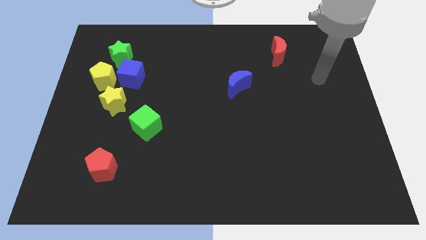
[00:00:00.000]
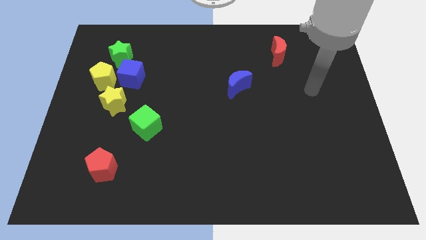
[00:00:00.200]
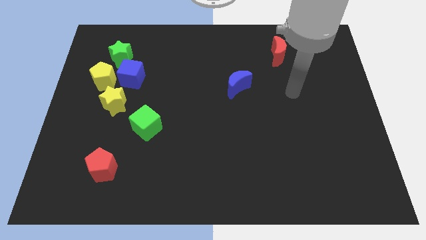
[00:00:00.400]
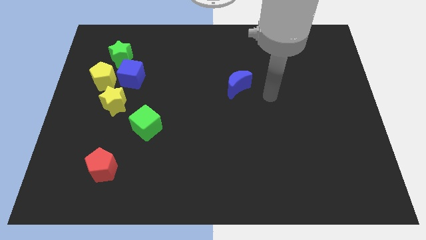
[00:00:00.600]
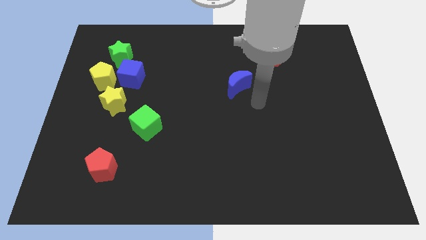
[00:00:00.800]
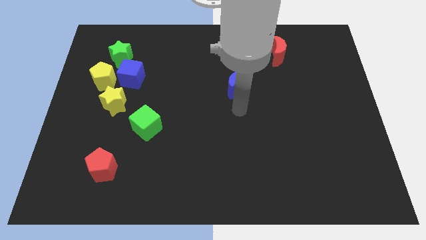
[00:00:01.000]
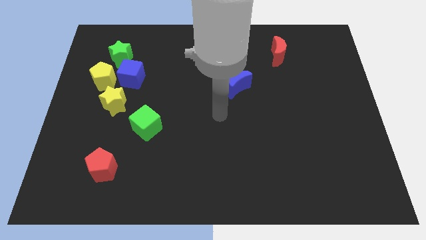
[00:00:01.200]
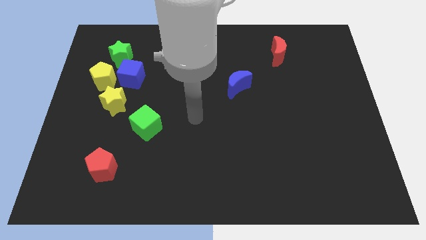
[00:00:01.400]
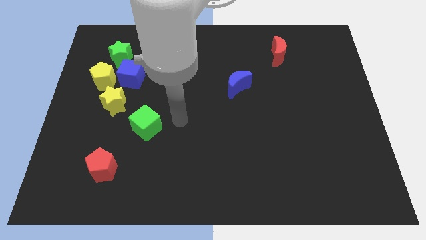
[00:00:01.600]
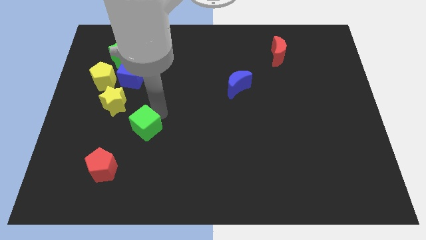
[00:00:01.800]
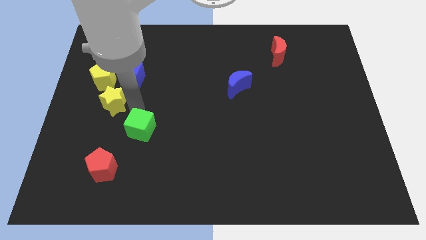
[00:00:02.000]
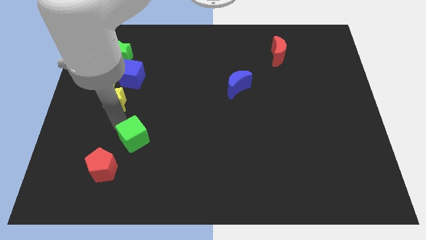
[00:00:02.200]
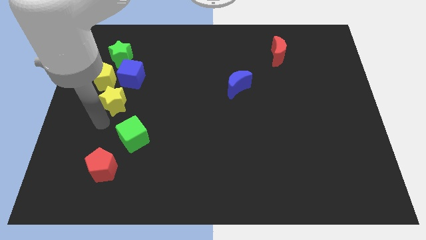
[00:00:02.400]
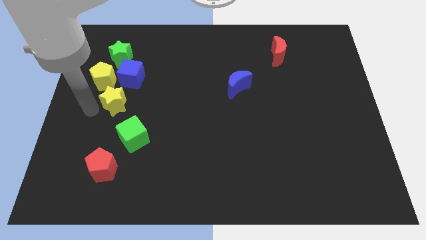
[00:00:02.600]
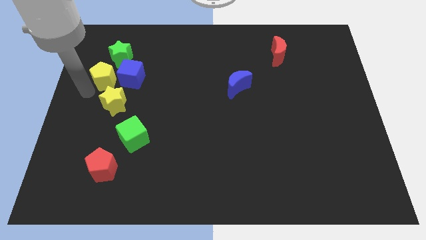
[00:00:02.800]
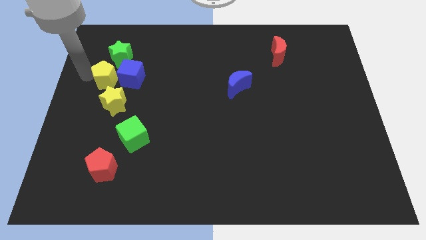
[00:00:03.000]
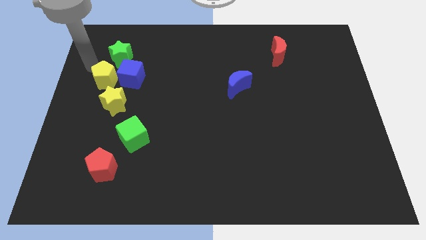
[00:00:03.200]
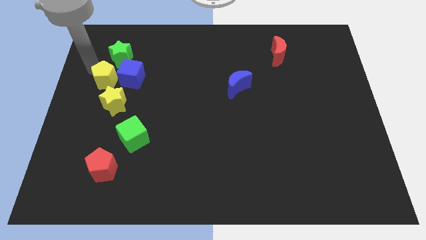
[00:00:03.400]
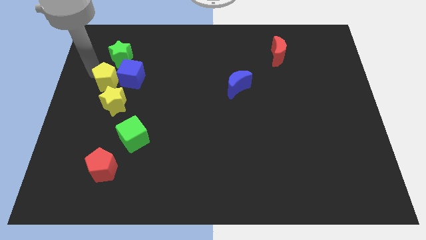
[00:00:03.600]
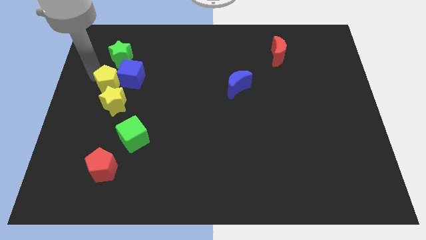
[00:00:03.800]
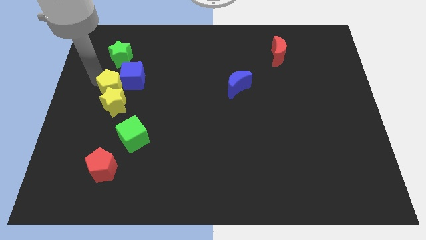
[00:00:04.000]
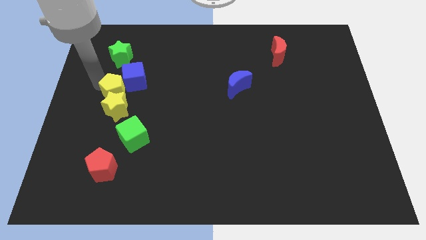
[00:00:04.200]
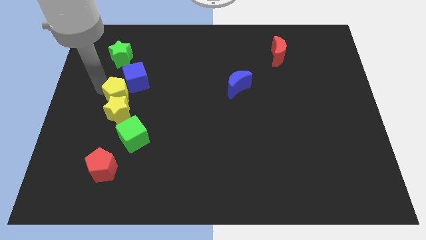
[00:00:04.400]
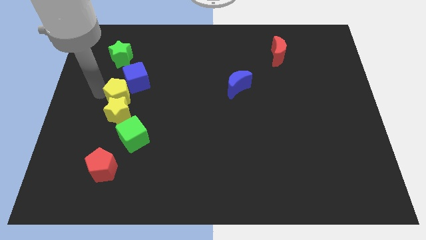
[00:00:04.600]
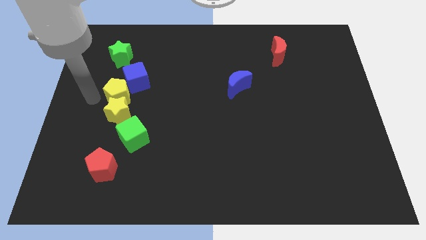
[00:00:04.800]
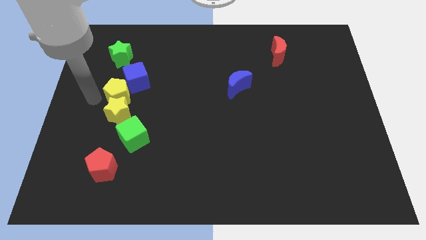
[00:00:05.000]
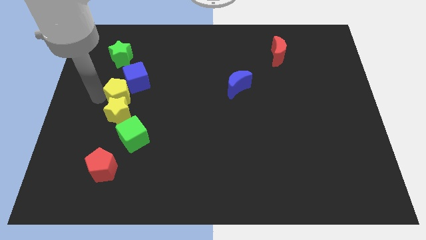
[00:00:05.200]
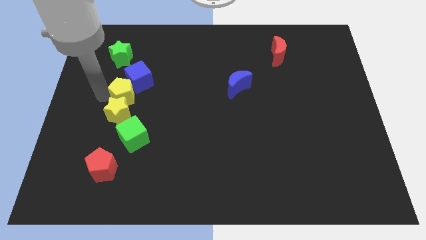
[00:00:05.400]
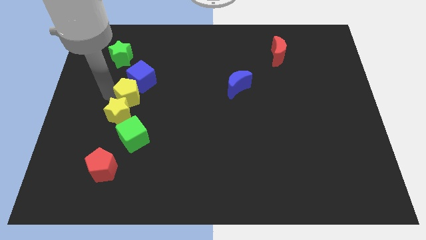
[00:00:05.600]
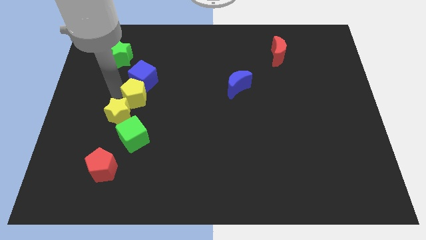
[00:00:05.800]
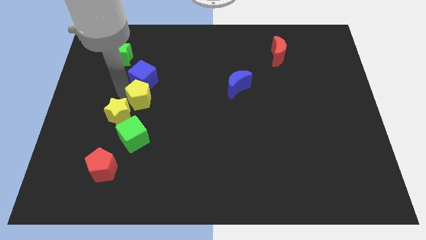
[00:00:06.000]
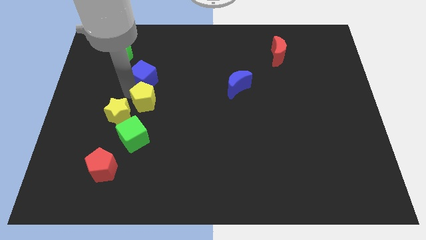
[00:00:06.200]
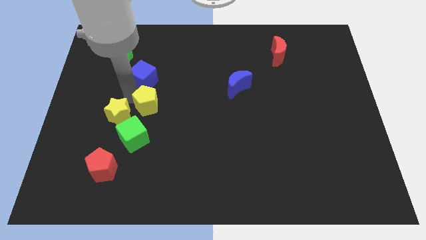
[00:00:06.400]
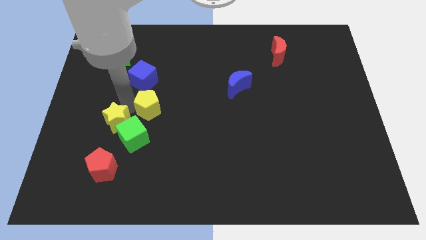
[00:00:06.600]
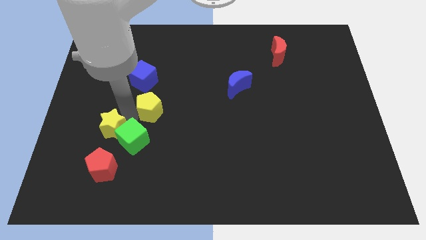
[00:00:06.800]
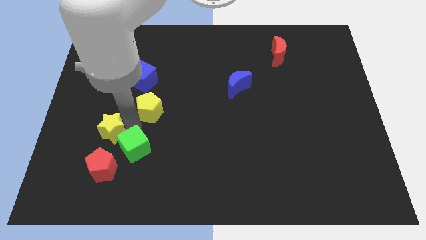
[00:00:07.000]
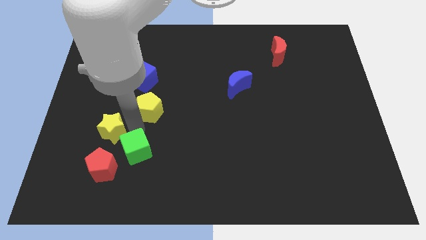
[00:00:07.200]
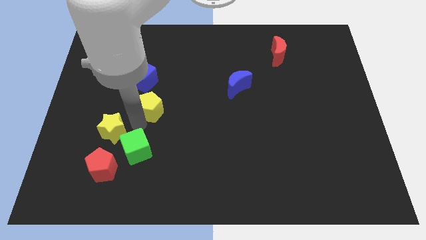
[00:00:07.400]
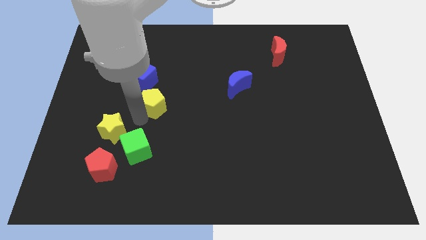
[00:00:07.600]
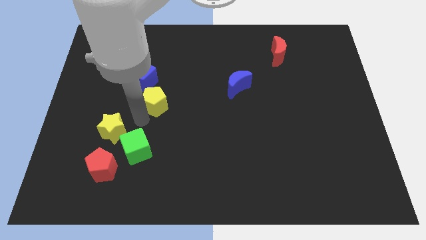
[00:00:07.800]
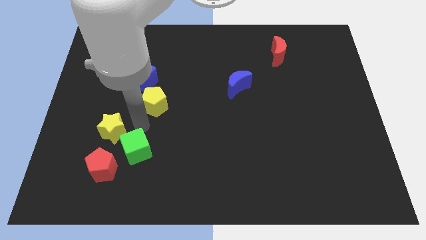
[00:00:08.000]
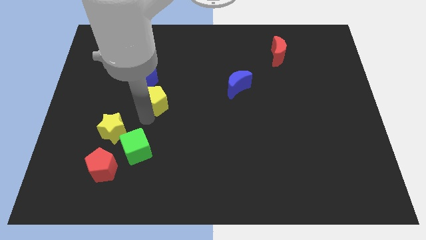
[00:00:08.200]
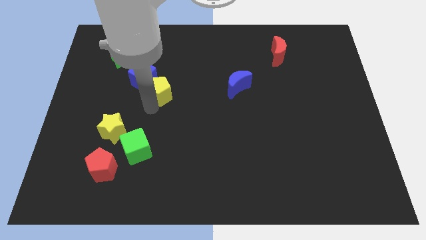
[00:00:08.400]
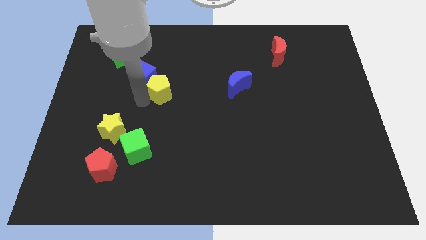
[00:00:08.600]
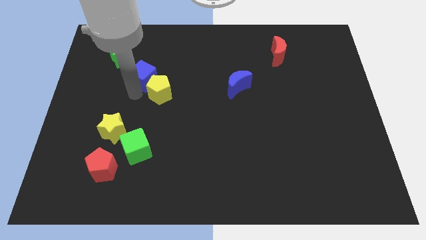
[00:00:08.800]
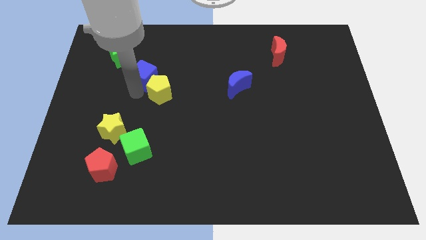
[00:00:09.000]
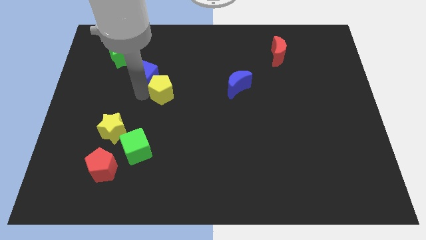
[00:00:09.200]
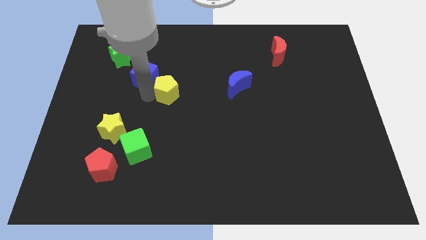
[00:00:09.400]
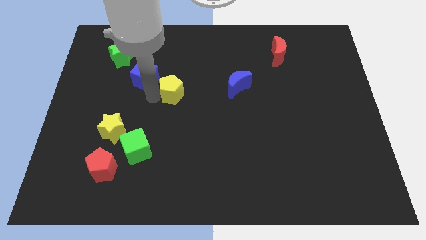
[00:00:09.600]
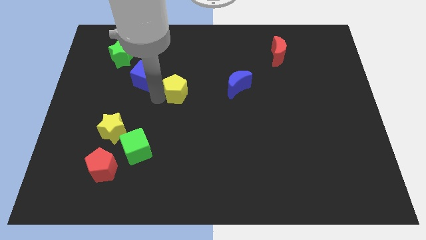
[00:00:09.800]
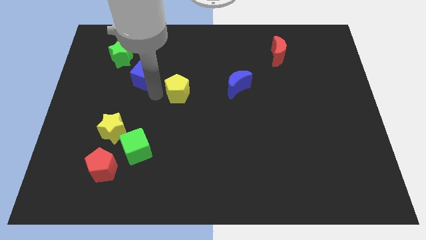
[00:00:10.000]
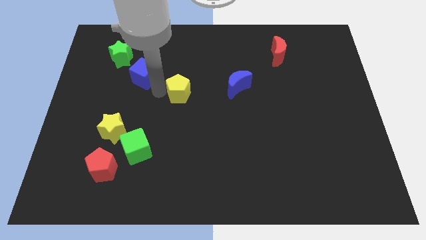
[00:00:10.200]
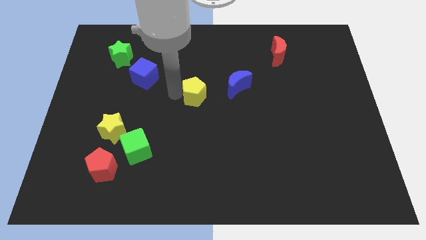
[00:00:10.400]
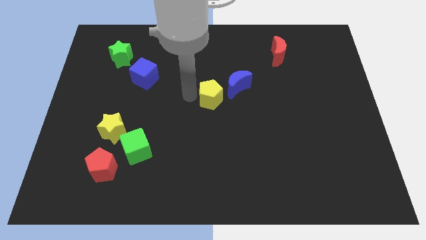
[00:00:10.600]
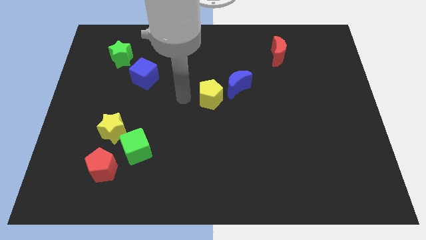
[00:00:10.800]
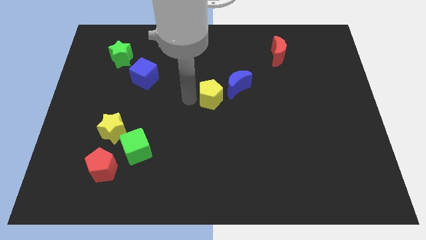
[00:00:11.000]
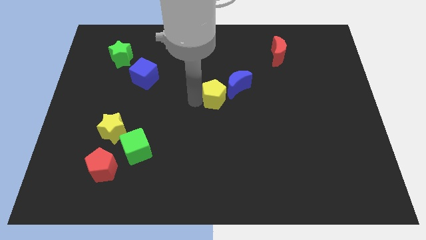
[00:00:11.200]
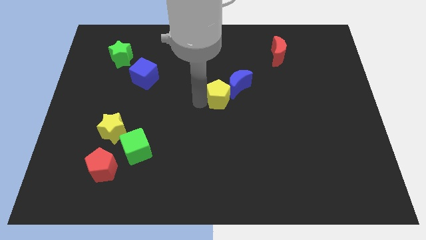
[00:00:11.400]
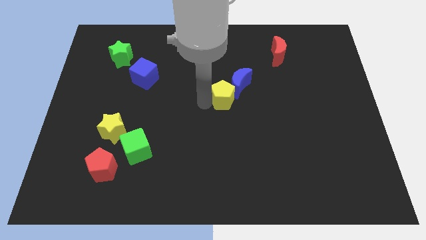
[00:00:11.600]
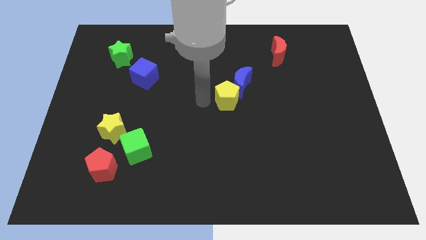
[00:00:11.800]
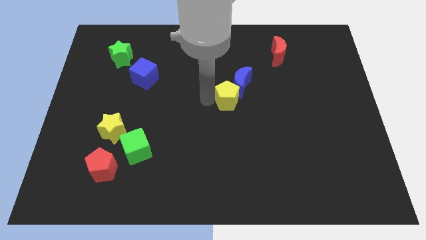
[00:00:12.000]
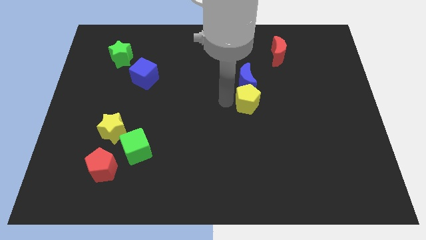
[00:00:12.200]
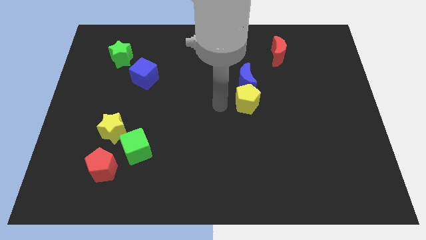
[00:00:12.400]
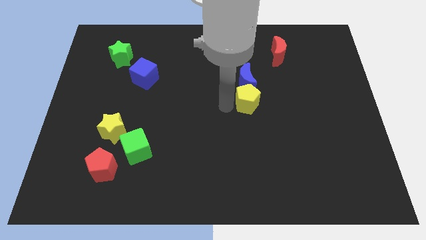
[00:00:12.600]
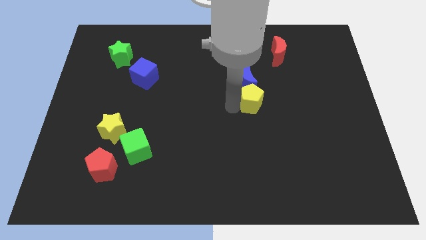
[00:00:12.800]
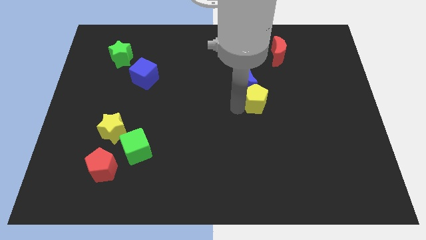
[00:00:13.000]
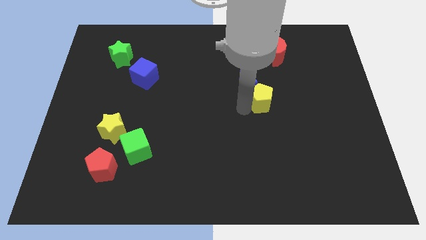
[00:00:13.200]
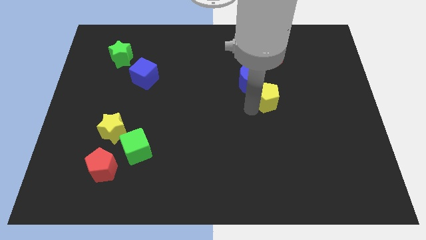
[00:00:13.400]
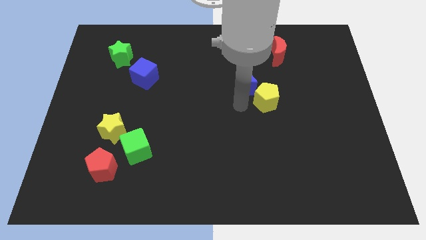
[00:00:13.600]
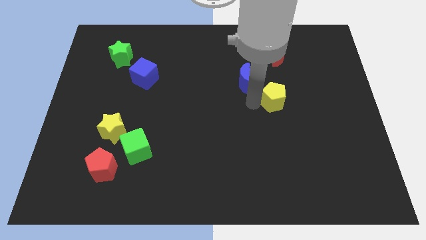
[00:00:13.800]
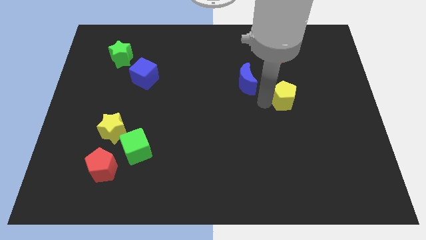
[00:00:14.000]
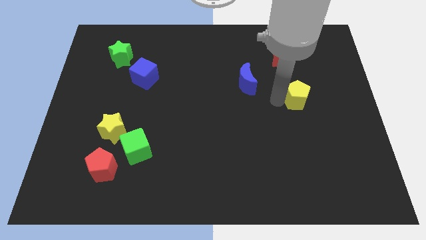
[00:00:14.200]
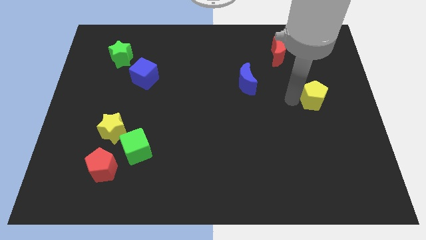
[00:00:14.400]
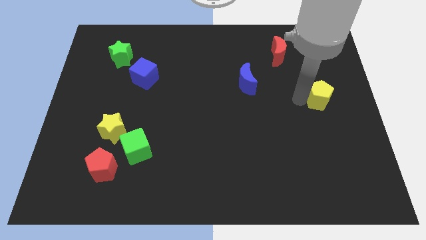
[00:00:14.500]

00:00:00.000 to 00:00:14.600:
put the yellow pentagon to the center right
